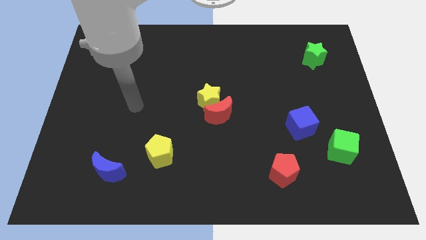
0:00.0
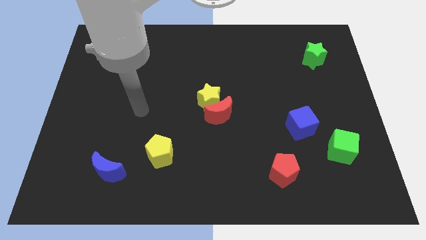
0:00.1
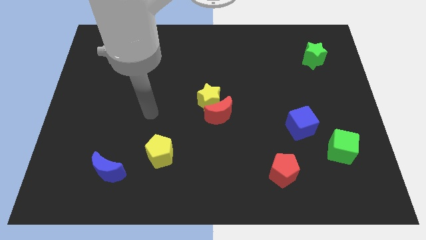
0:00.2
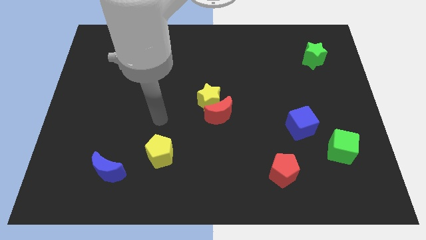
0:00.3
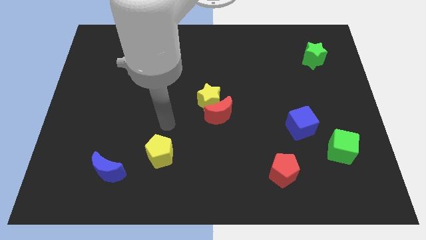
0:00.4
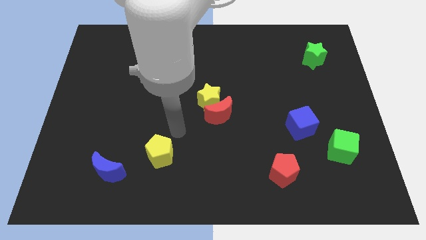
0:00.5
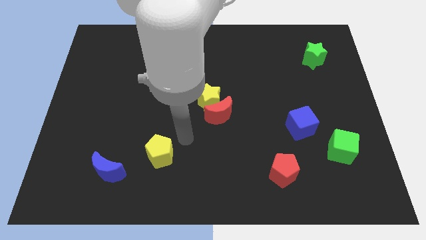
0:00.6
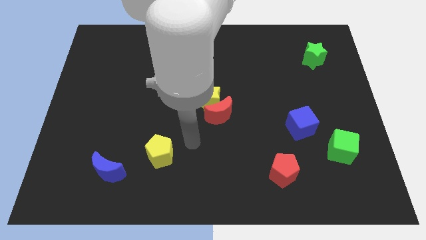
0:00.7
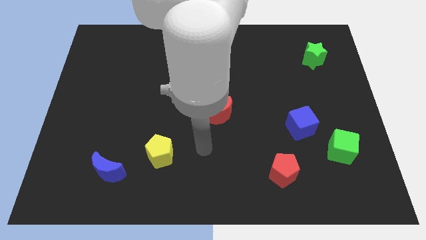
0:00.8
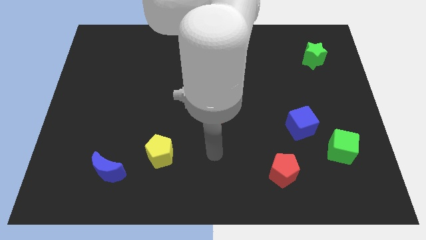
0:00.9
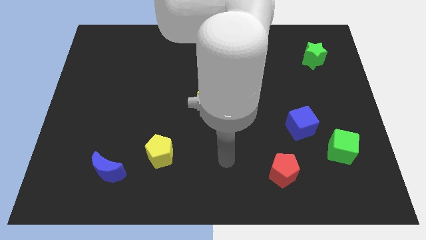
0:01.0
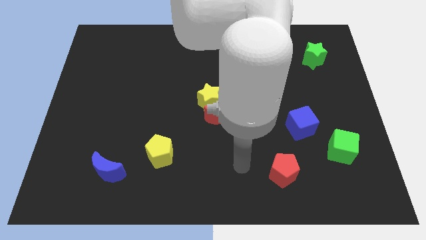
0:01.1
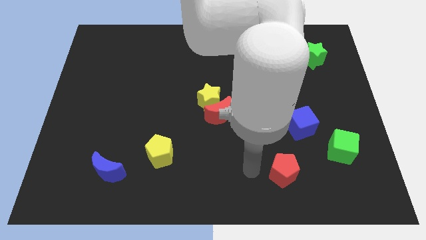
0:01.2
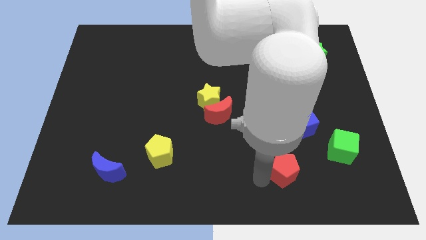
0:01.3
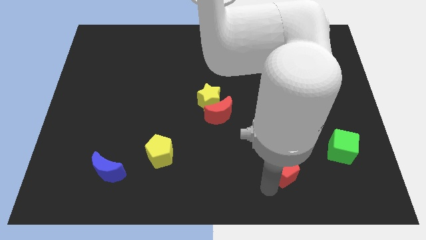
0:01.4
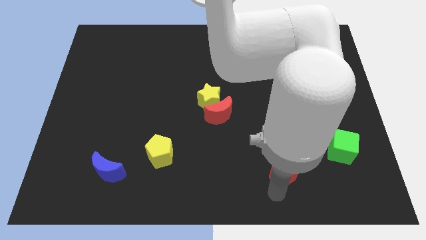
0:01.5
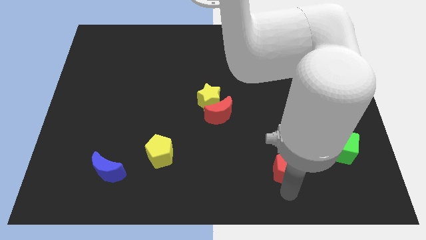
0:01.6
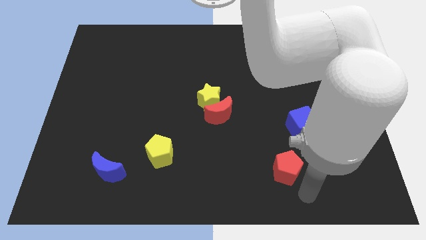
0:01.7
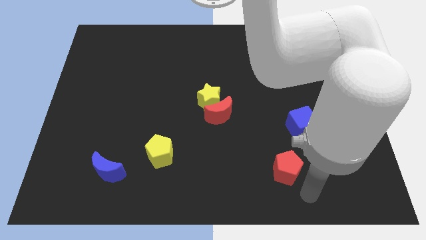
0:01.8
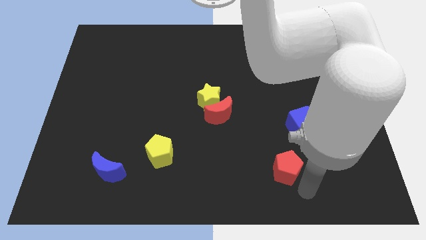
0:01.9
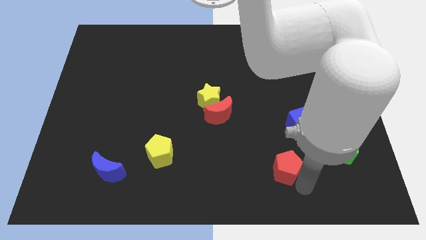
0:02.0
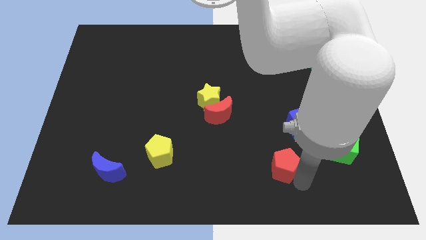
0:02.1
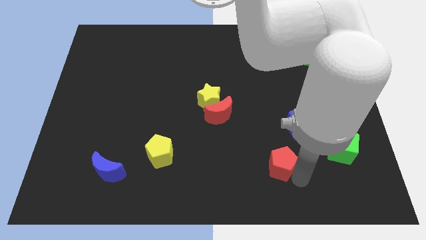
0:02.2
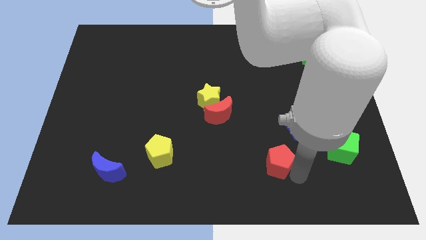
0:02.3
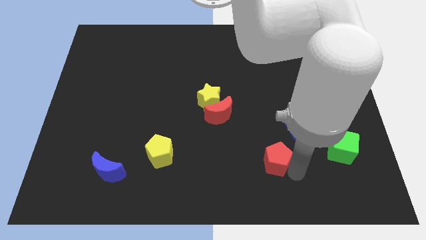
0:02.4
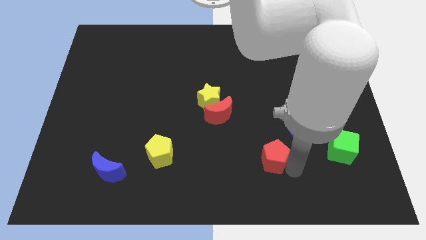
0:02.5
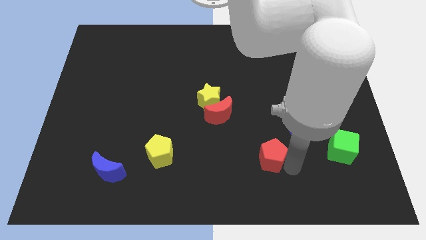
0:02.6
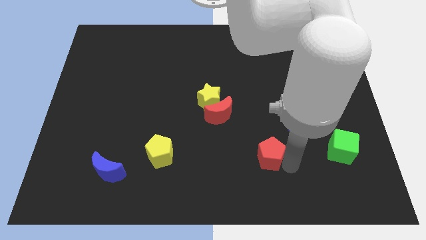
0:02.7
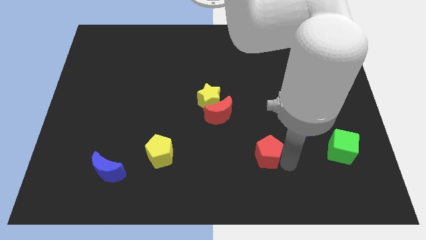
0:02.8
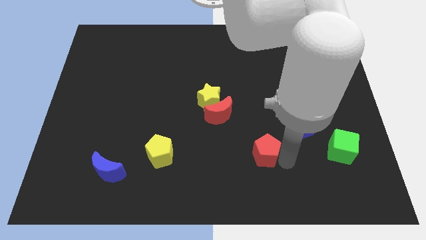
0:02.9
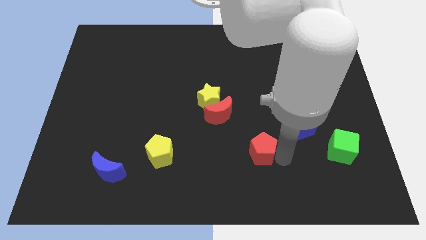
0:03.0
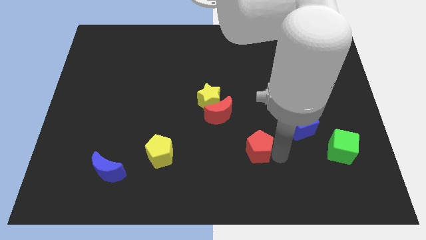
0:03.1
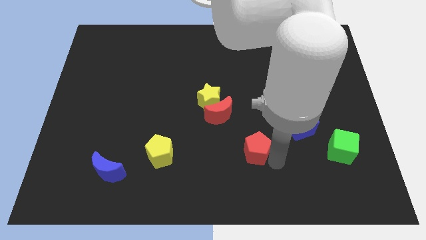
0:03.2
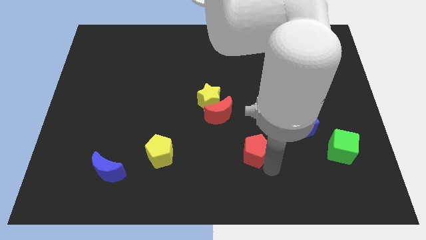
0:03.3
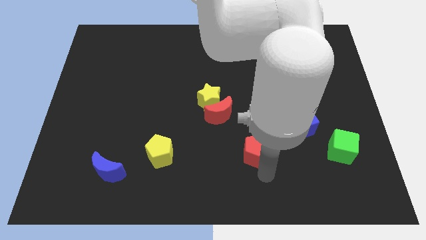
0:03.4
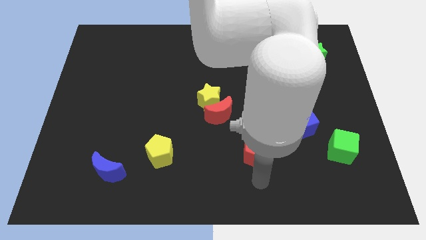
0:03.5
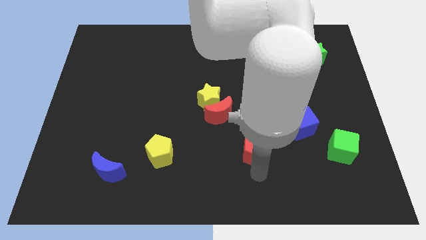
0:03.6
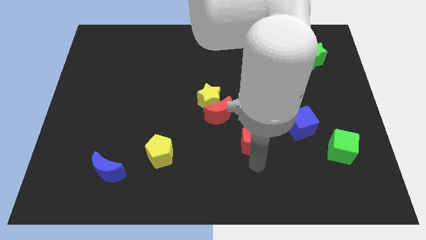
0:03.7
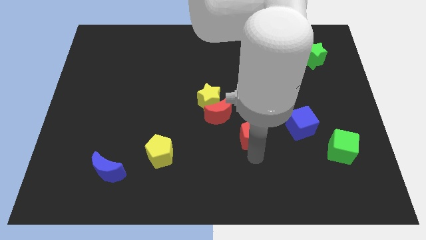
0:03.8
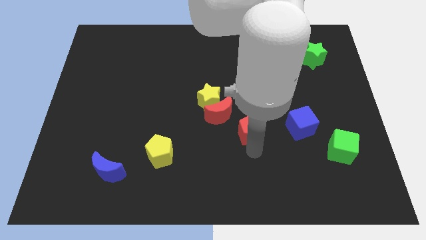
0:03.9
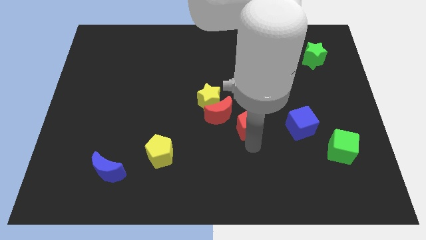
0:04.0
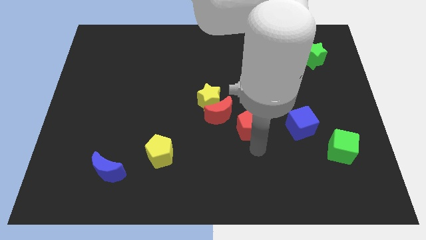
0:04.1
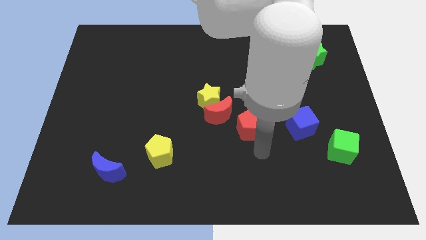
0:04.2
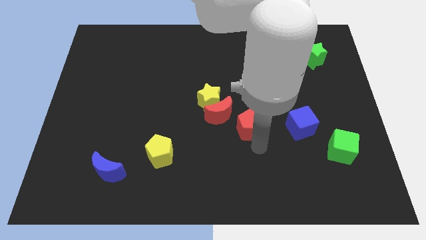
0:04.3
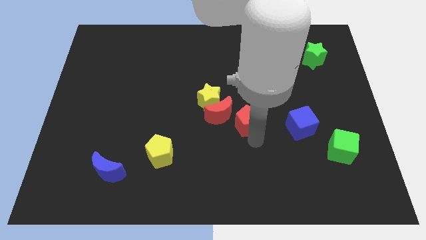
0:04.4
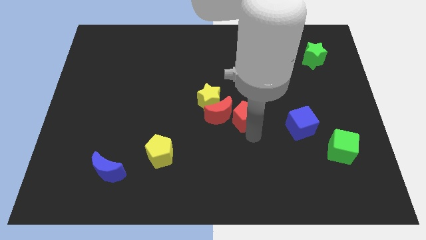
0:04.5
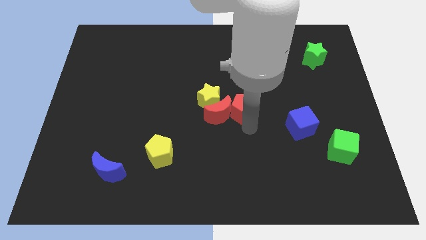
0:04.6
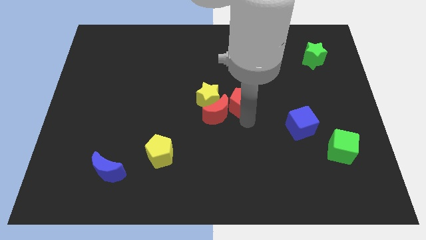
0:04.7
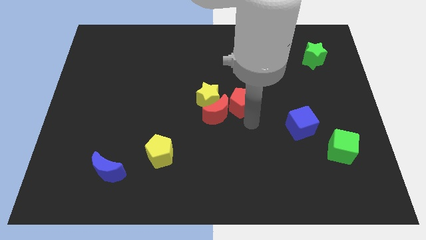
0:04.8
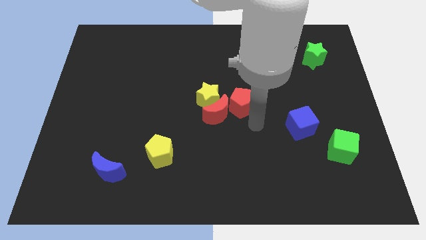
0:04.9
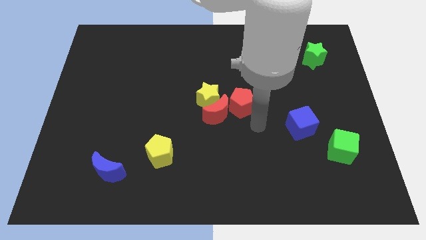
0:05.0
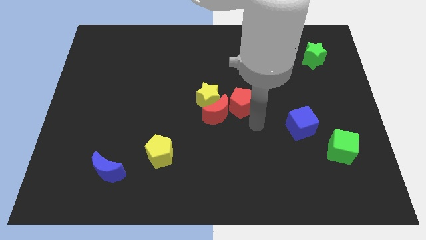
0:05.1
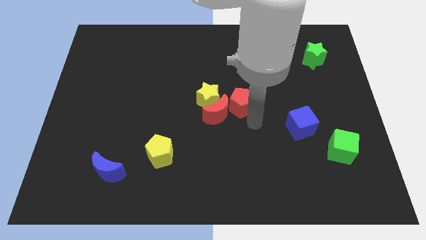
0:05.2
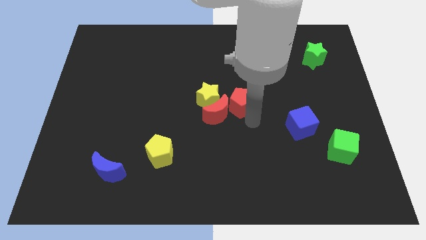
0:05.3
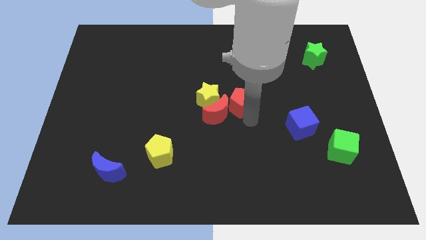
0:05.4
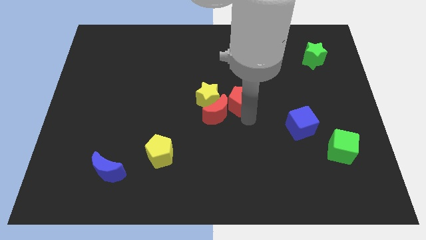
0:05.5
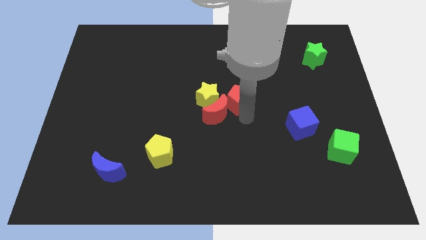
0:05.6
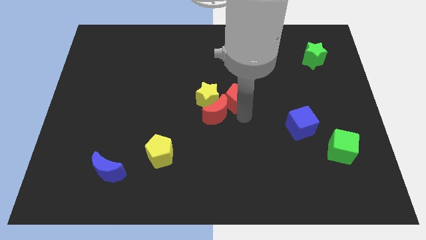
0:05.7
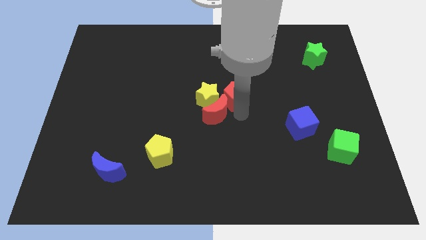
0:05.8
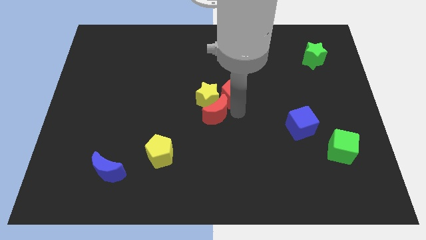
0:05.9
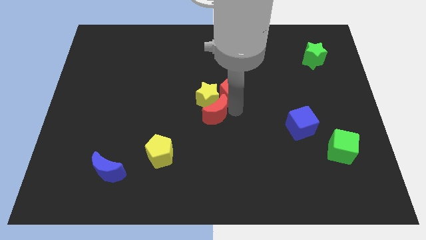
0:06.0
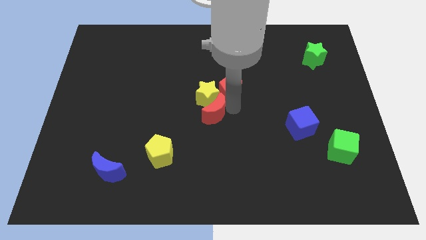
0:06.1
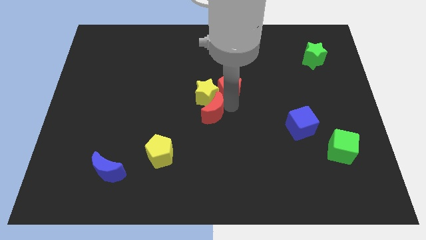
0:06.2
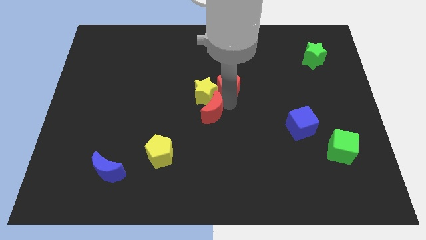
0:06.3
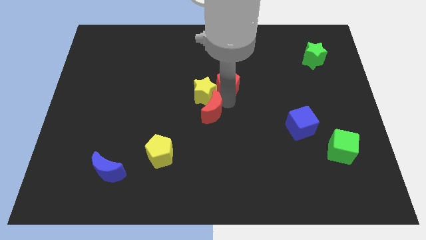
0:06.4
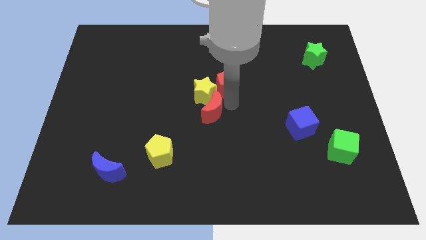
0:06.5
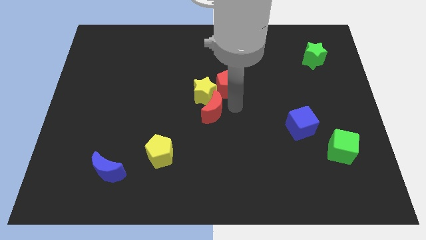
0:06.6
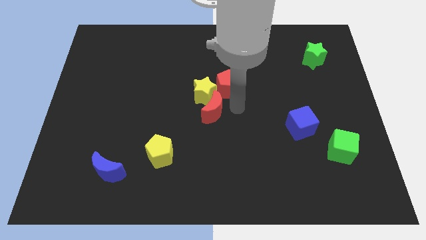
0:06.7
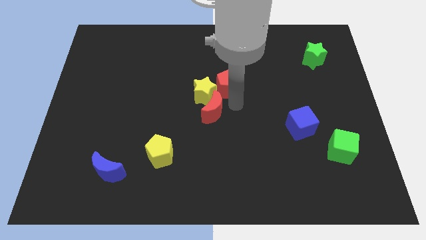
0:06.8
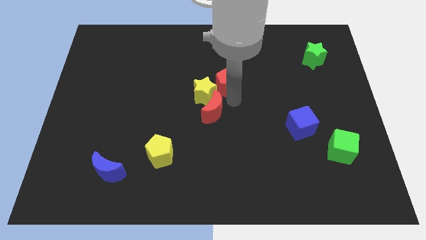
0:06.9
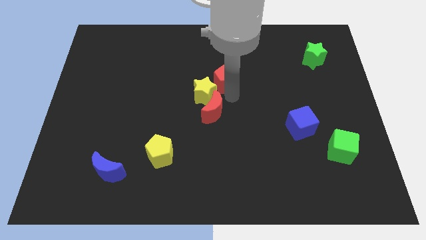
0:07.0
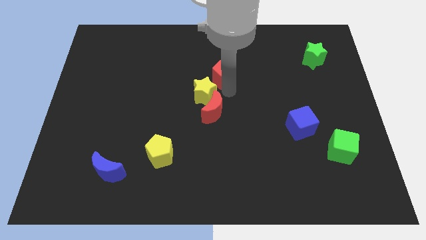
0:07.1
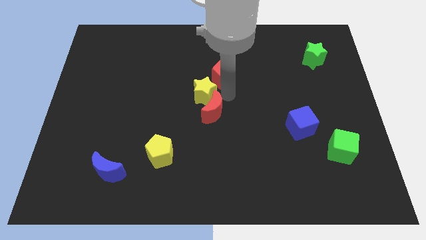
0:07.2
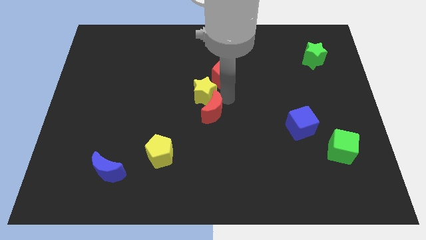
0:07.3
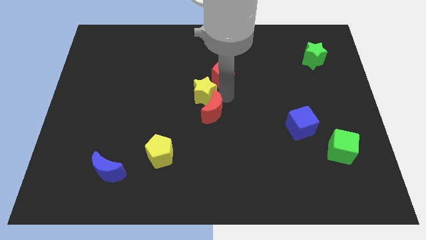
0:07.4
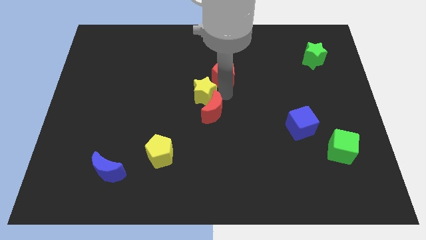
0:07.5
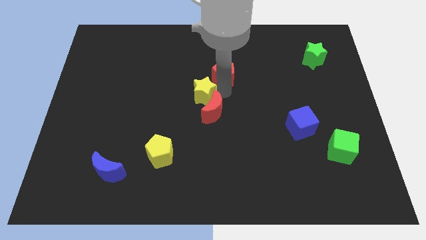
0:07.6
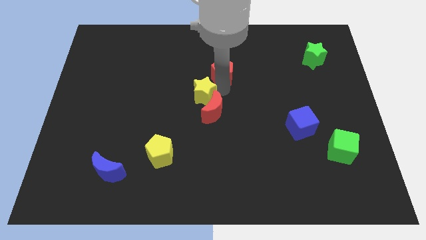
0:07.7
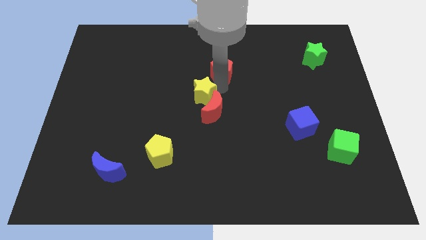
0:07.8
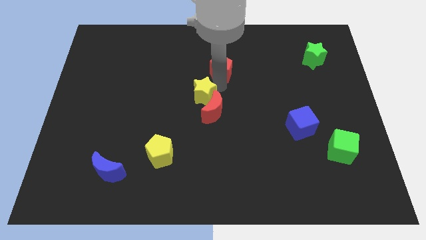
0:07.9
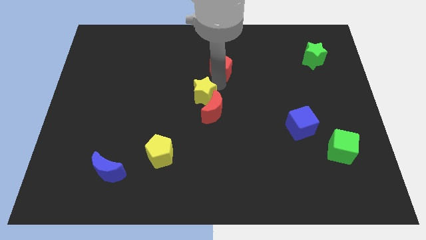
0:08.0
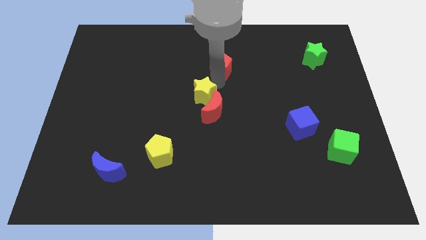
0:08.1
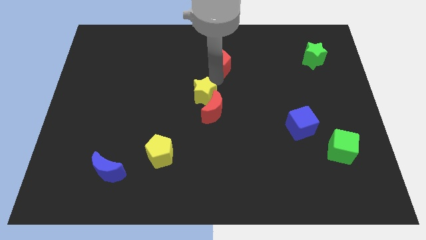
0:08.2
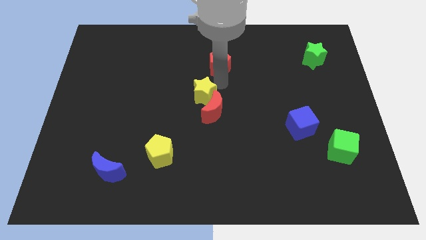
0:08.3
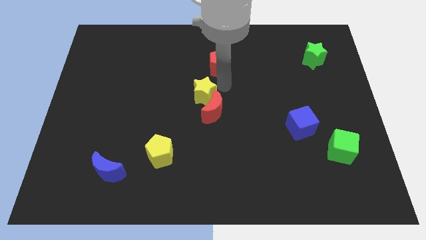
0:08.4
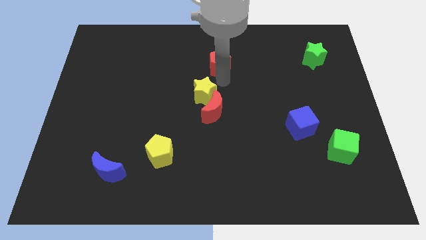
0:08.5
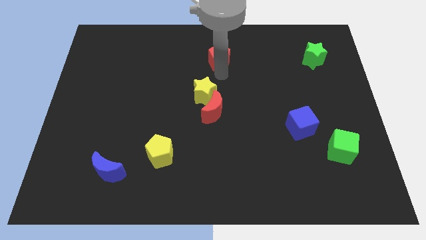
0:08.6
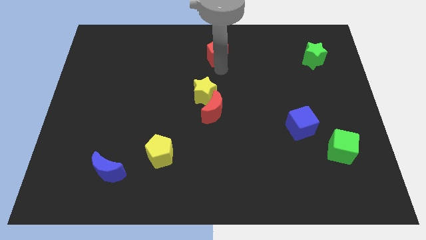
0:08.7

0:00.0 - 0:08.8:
put the red pentagon to the towards your base
